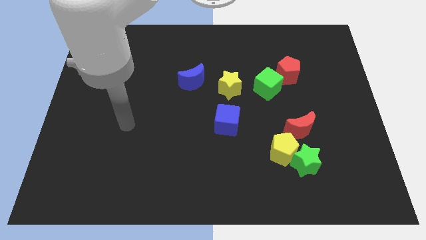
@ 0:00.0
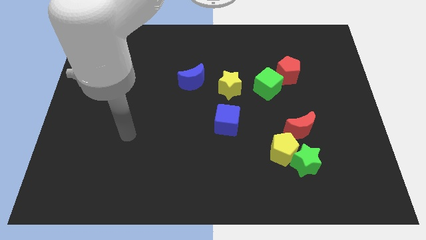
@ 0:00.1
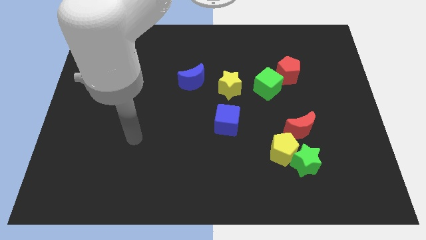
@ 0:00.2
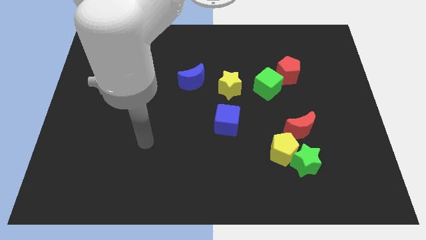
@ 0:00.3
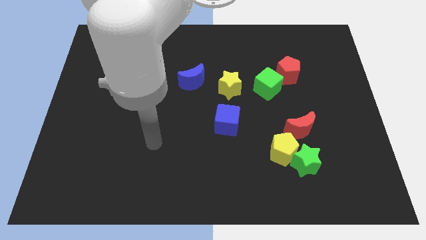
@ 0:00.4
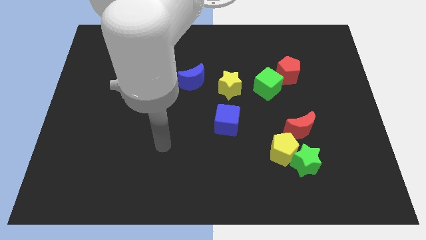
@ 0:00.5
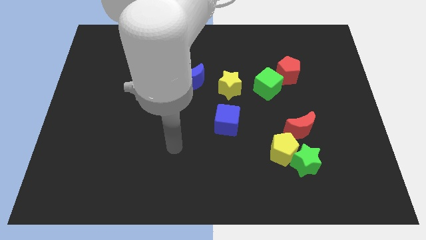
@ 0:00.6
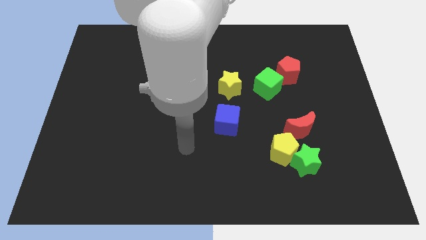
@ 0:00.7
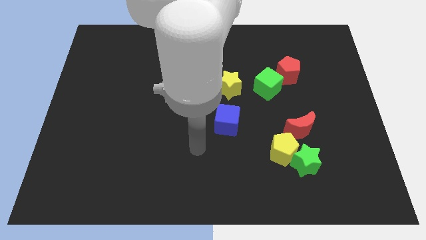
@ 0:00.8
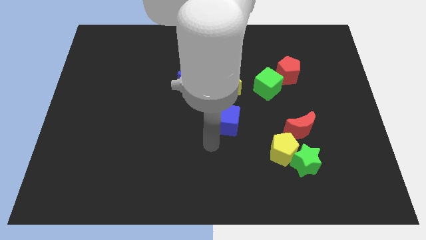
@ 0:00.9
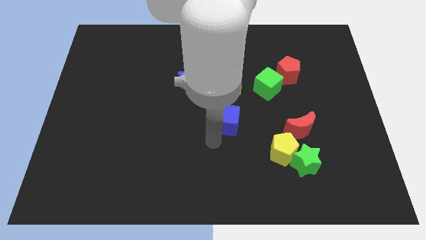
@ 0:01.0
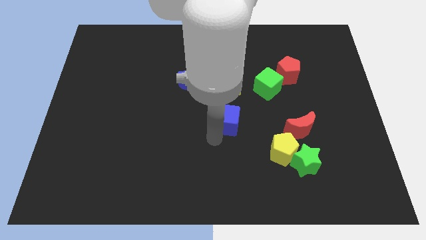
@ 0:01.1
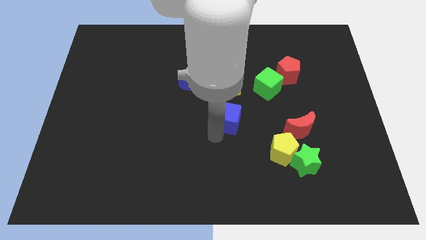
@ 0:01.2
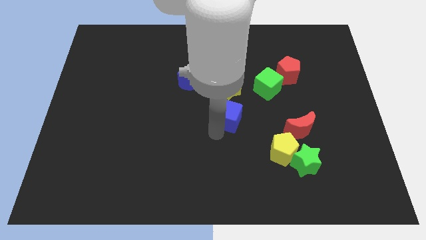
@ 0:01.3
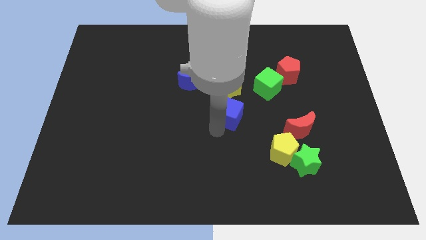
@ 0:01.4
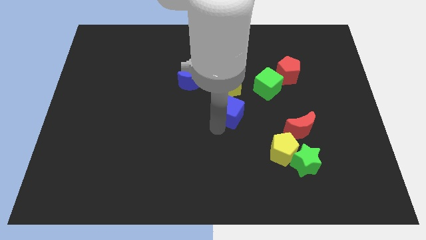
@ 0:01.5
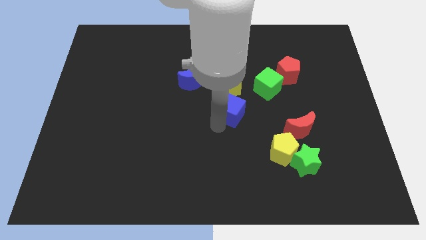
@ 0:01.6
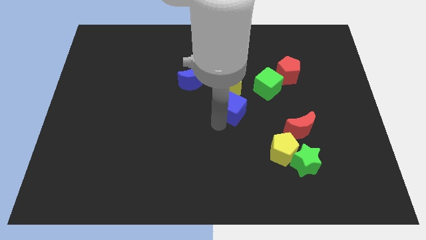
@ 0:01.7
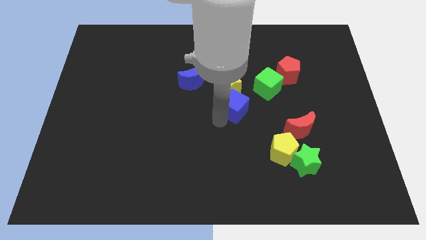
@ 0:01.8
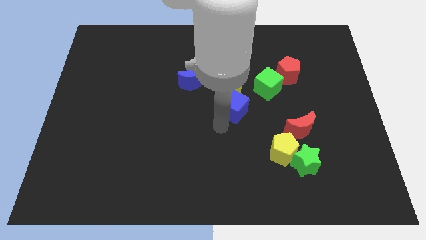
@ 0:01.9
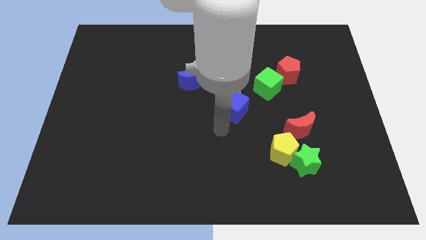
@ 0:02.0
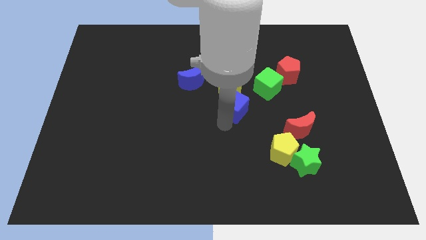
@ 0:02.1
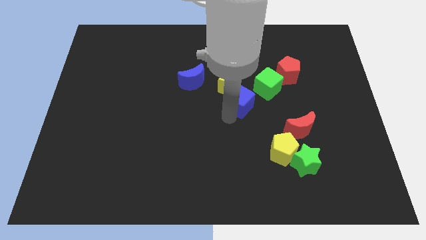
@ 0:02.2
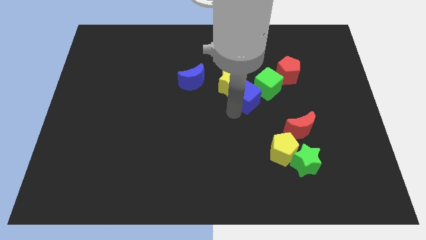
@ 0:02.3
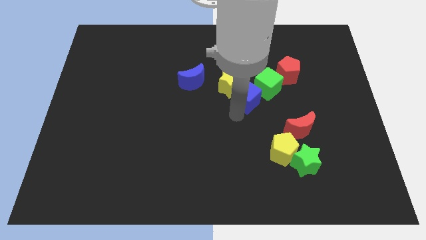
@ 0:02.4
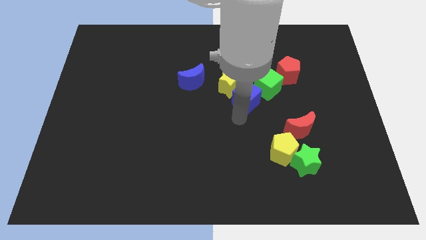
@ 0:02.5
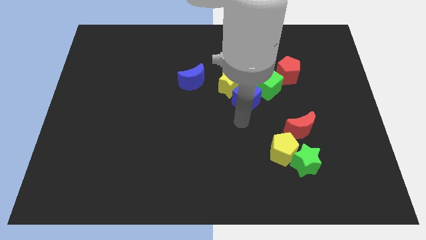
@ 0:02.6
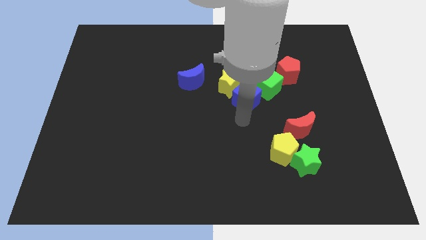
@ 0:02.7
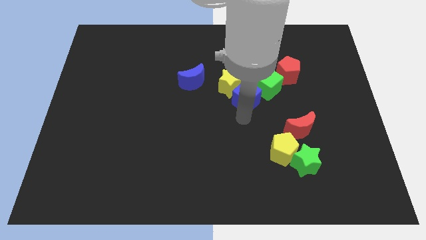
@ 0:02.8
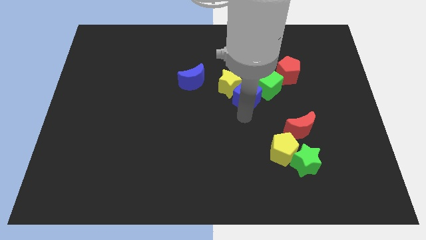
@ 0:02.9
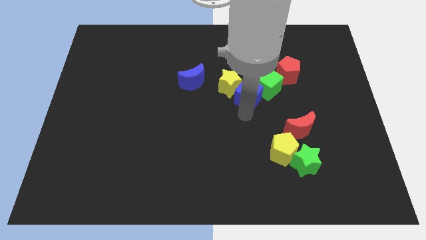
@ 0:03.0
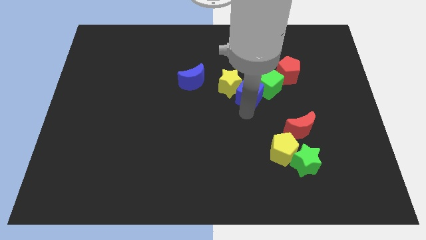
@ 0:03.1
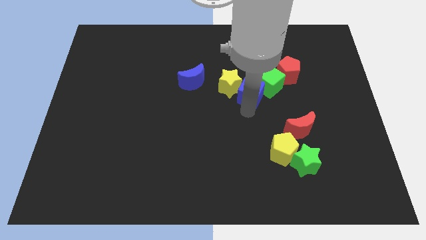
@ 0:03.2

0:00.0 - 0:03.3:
slightly push the blue cube up

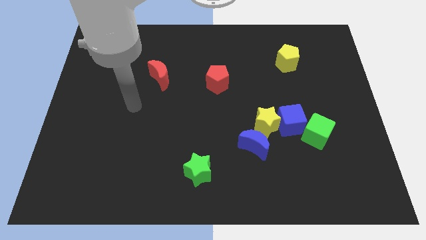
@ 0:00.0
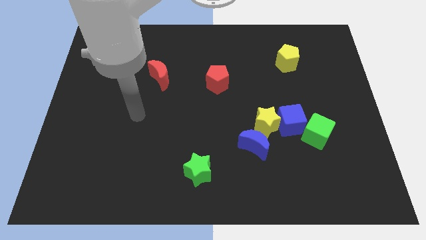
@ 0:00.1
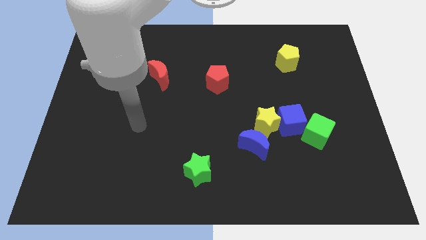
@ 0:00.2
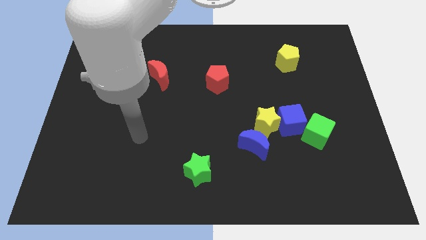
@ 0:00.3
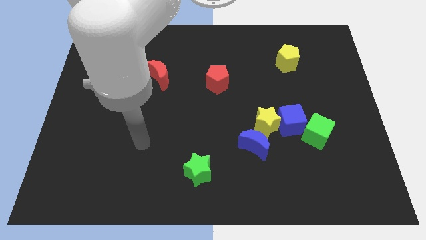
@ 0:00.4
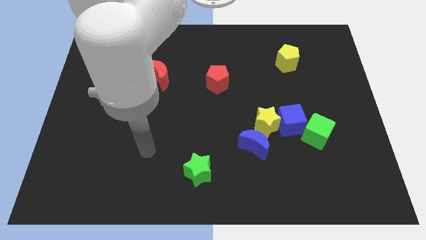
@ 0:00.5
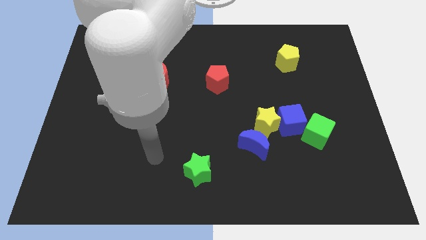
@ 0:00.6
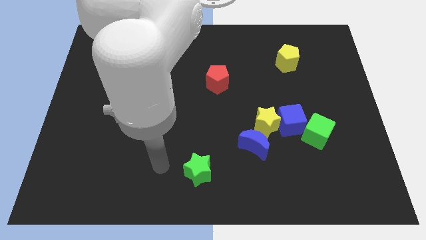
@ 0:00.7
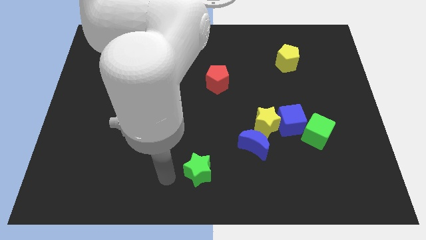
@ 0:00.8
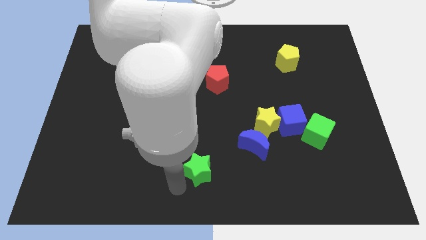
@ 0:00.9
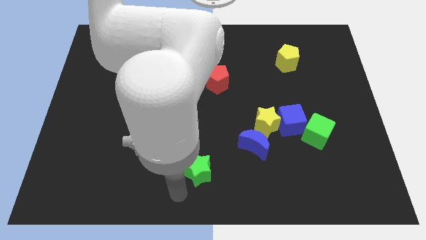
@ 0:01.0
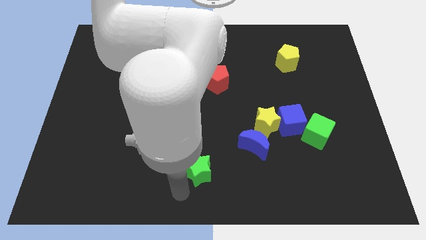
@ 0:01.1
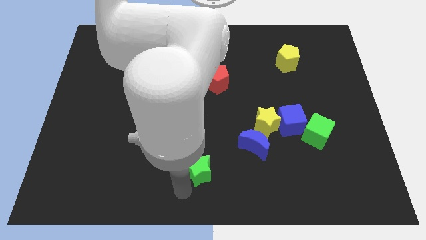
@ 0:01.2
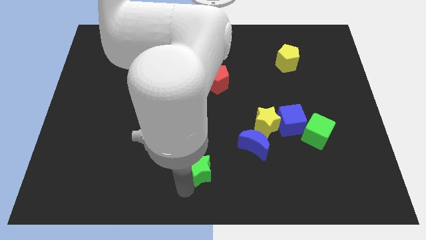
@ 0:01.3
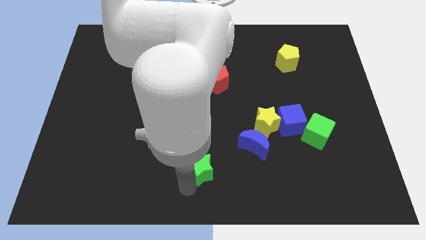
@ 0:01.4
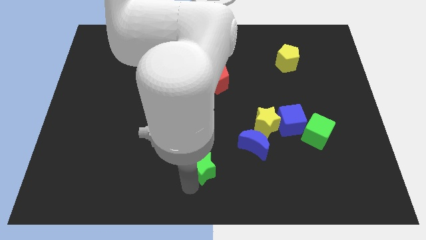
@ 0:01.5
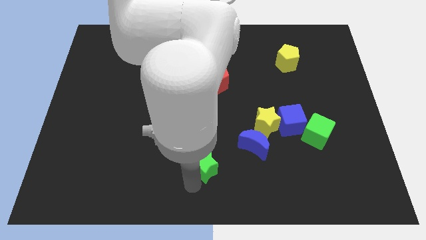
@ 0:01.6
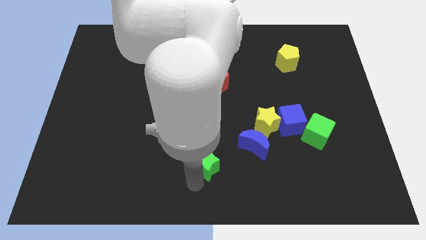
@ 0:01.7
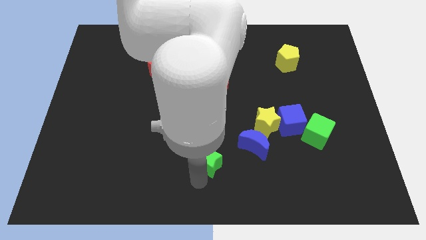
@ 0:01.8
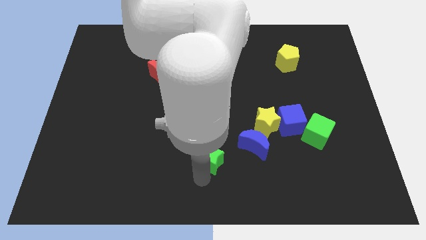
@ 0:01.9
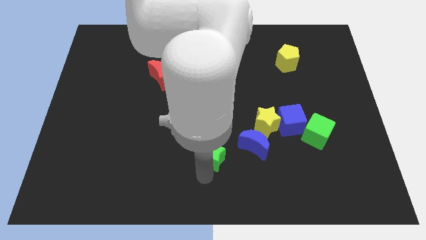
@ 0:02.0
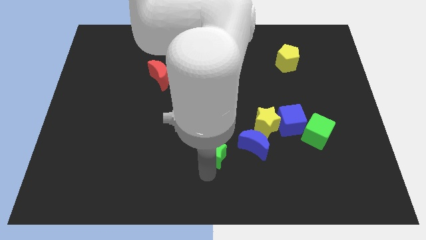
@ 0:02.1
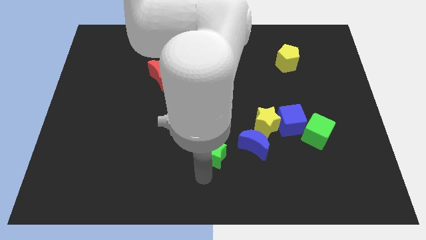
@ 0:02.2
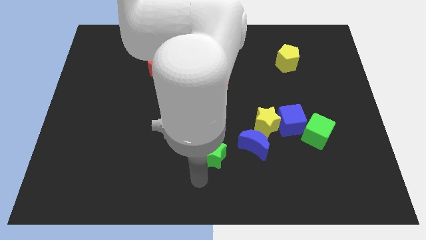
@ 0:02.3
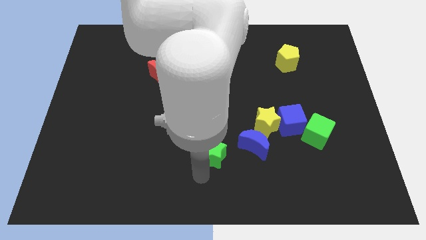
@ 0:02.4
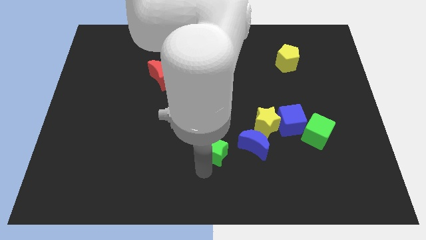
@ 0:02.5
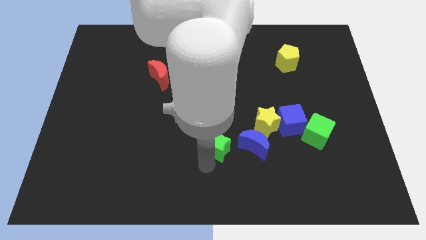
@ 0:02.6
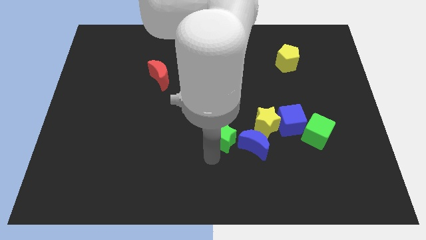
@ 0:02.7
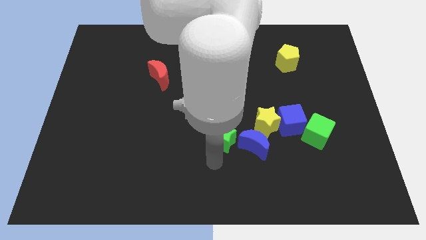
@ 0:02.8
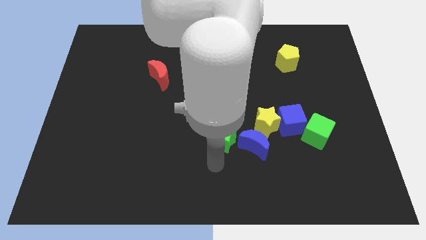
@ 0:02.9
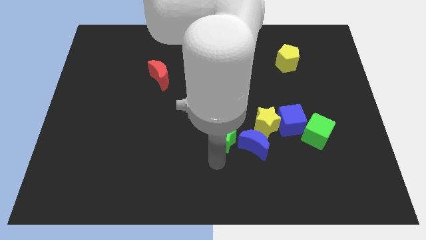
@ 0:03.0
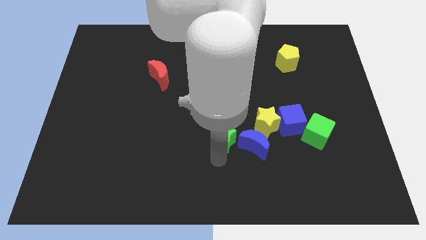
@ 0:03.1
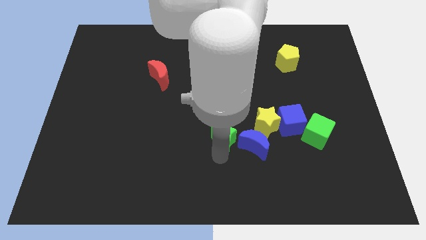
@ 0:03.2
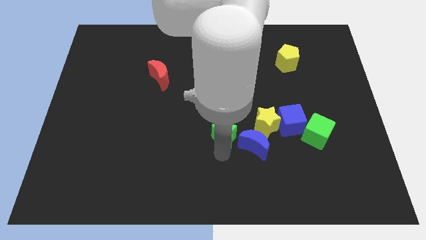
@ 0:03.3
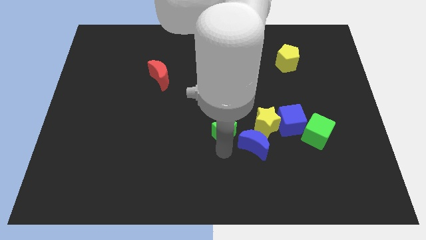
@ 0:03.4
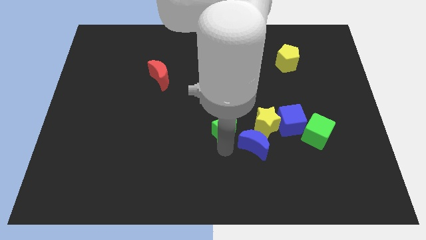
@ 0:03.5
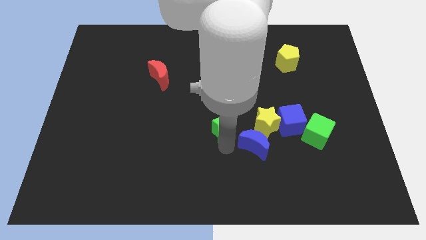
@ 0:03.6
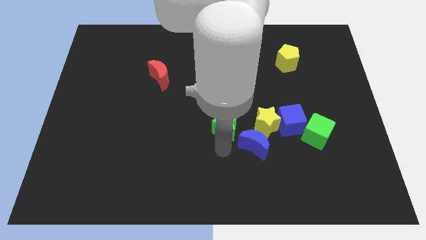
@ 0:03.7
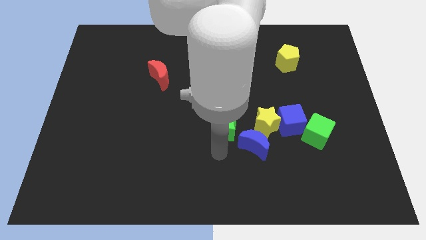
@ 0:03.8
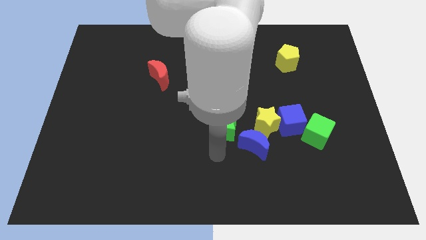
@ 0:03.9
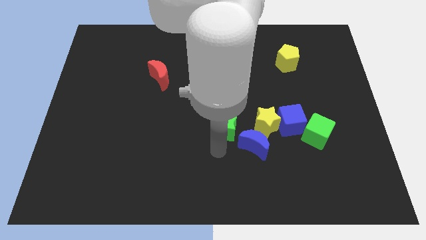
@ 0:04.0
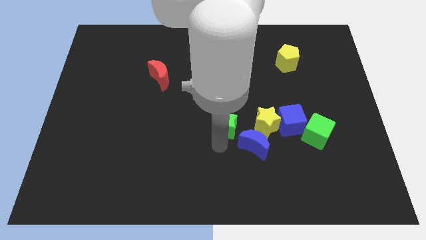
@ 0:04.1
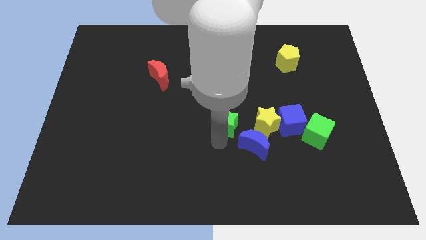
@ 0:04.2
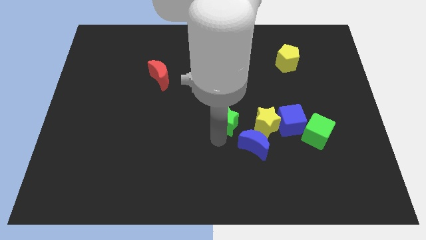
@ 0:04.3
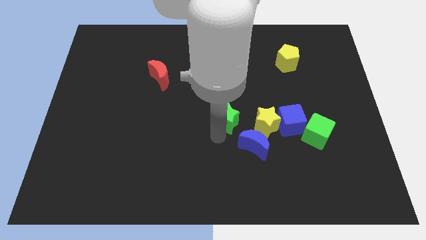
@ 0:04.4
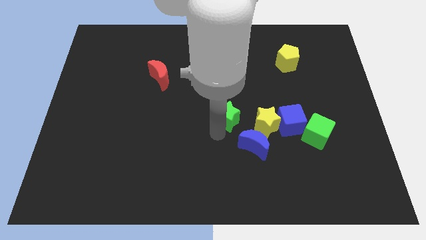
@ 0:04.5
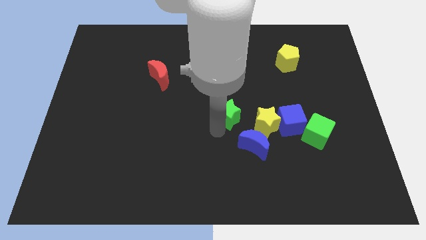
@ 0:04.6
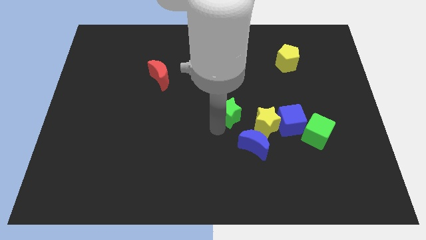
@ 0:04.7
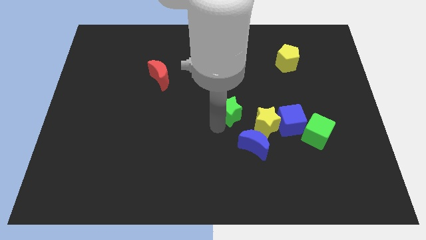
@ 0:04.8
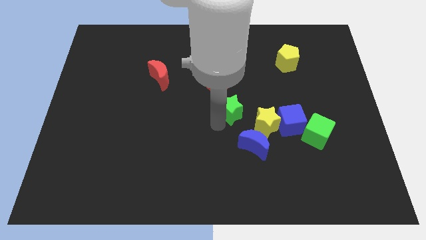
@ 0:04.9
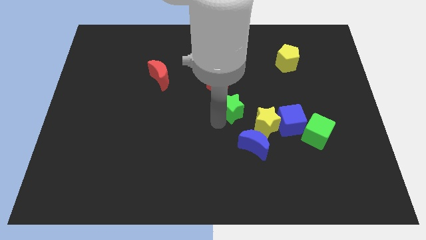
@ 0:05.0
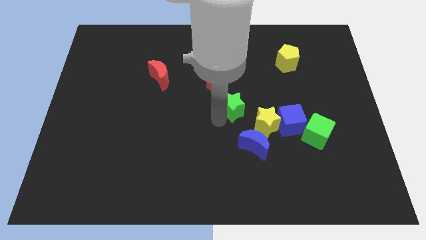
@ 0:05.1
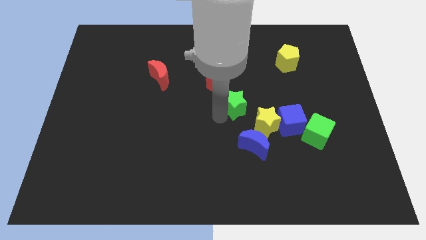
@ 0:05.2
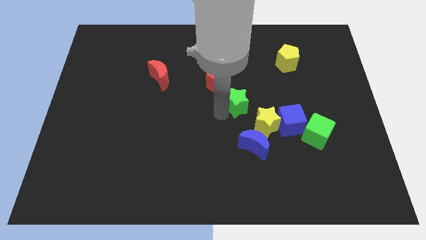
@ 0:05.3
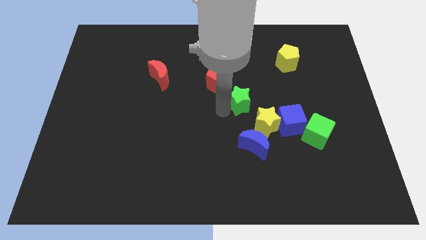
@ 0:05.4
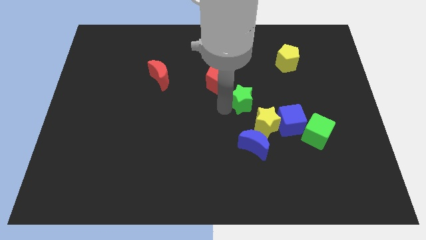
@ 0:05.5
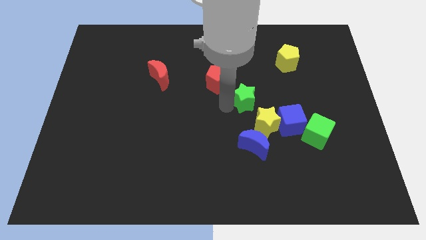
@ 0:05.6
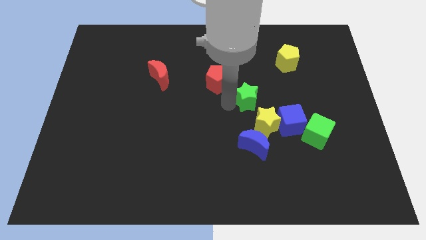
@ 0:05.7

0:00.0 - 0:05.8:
slide the green star up and right diagonally
